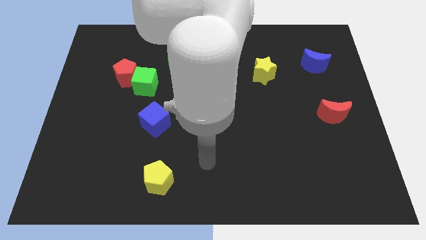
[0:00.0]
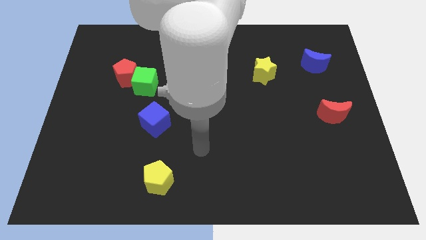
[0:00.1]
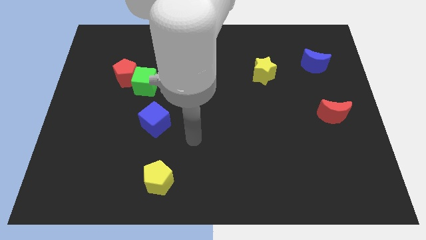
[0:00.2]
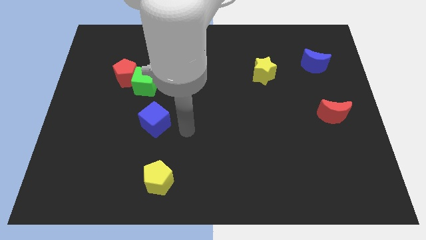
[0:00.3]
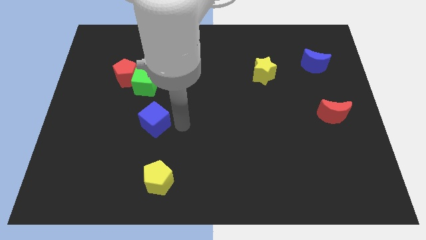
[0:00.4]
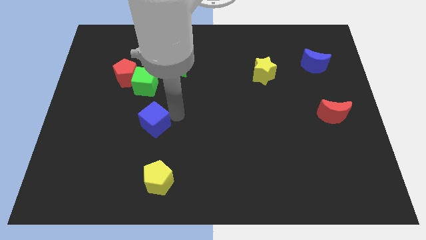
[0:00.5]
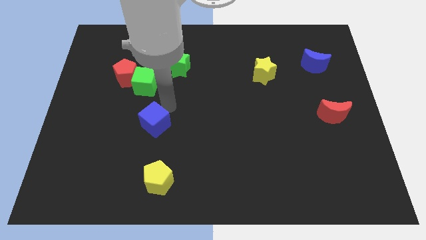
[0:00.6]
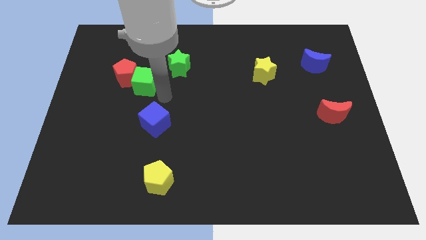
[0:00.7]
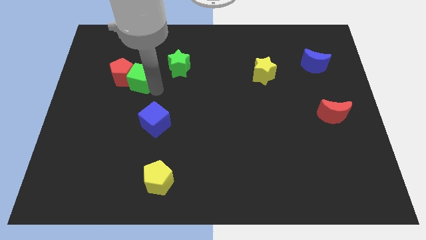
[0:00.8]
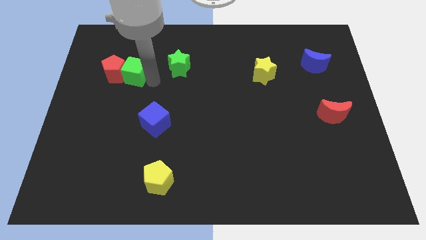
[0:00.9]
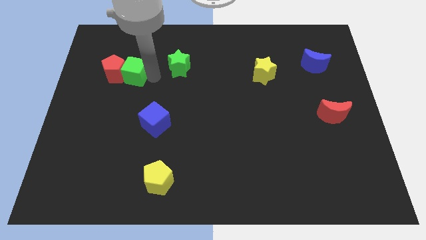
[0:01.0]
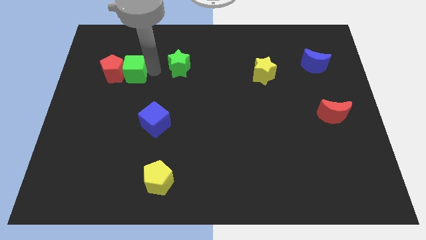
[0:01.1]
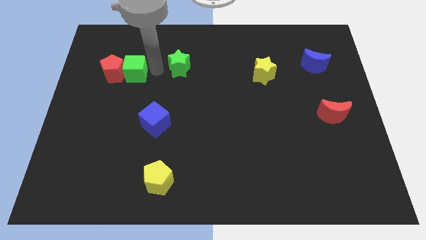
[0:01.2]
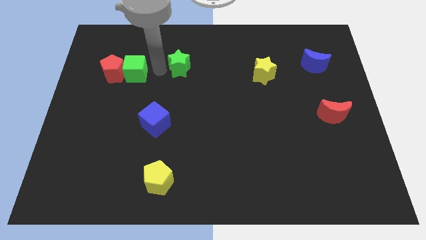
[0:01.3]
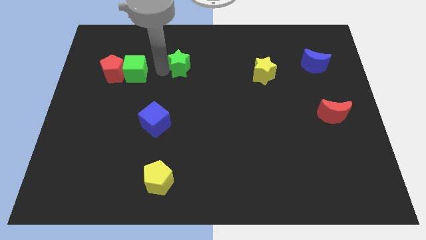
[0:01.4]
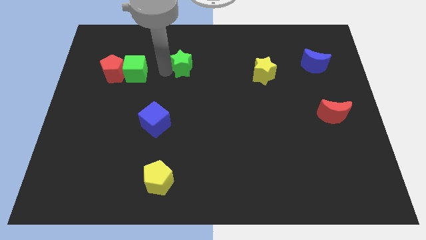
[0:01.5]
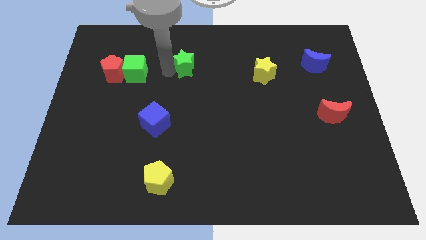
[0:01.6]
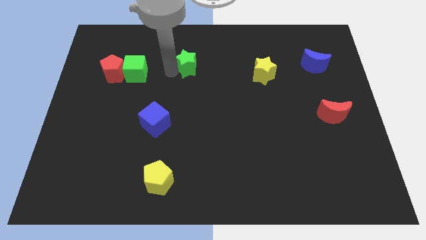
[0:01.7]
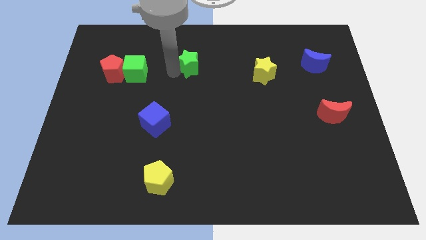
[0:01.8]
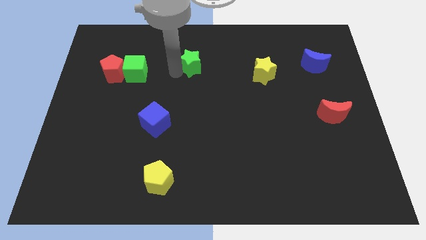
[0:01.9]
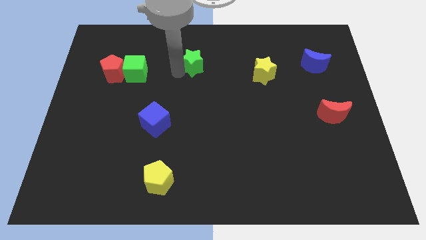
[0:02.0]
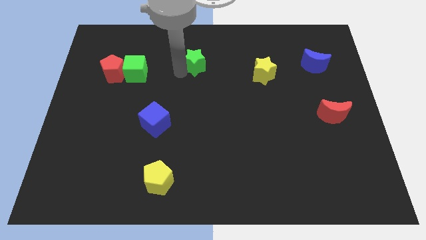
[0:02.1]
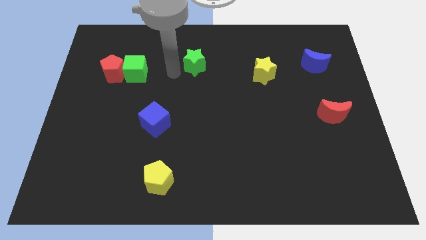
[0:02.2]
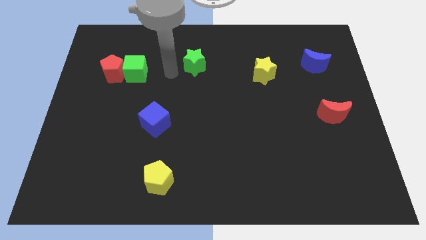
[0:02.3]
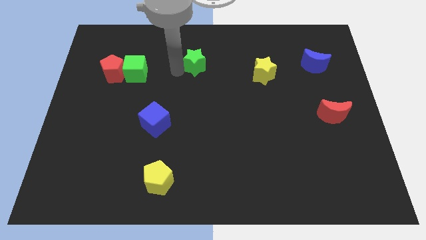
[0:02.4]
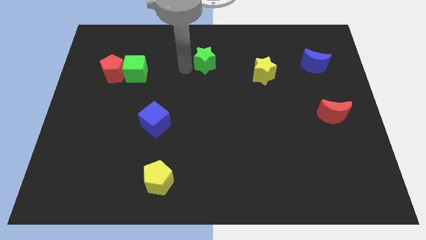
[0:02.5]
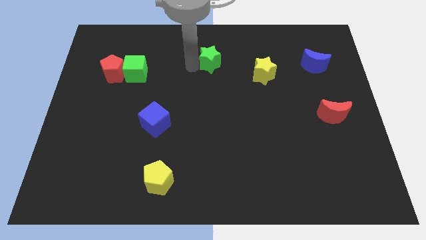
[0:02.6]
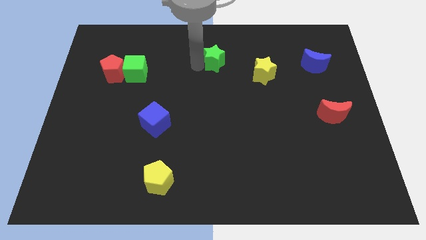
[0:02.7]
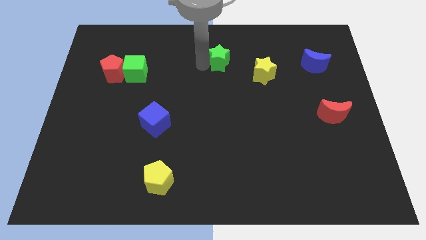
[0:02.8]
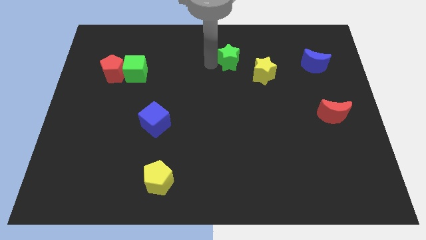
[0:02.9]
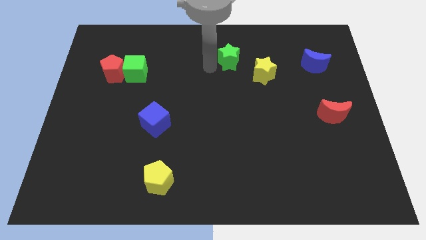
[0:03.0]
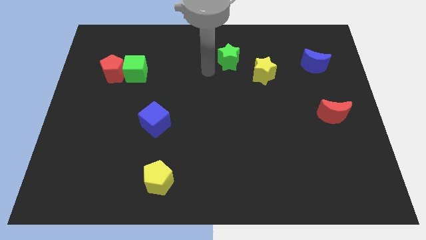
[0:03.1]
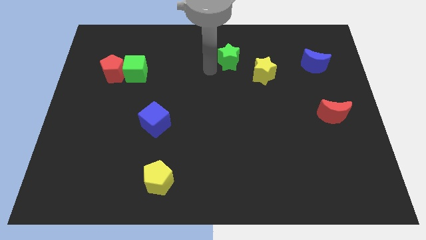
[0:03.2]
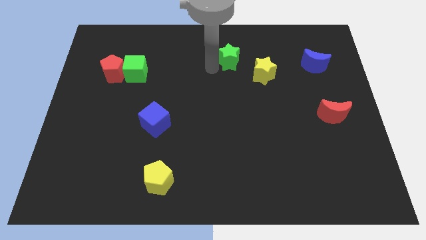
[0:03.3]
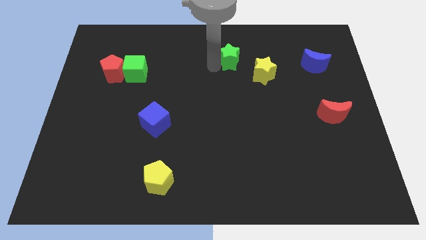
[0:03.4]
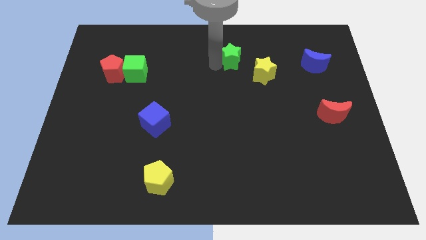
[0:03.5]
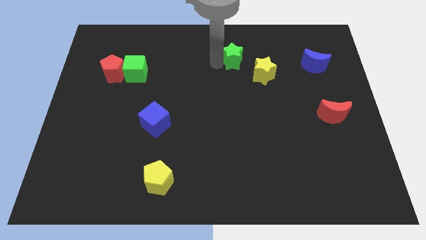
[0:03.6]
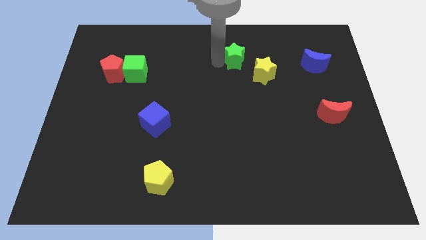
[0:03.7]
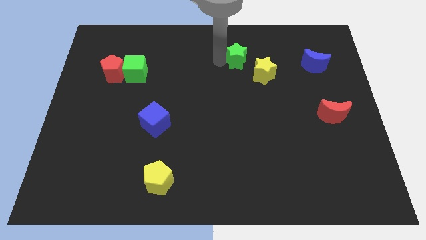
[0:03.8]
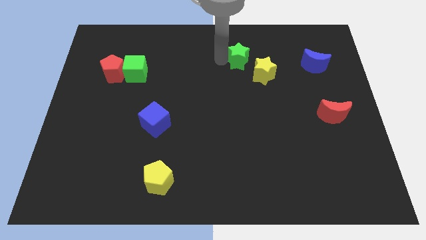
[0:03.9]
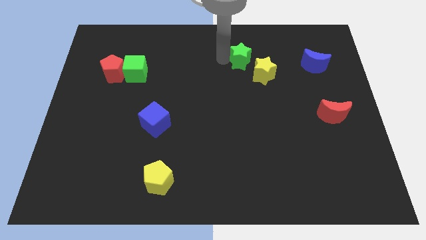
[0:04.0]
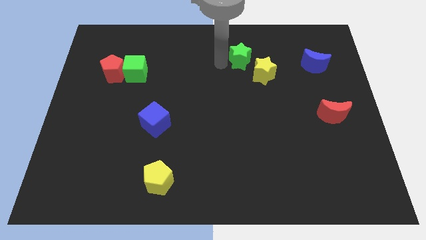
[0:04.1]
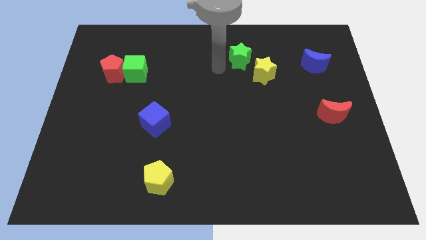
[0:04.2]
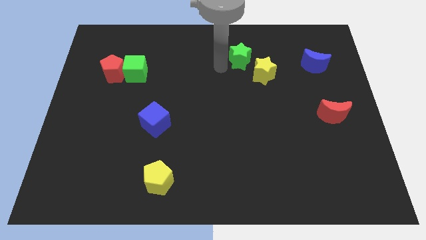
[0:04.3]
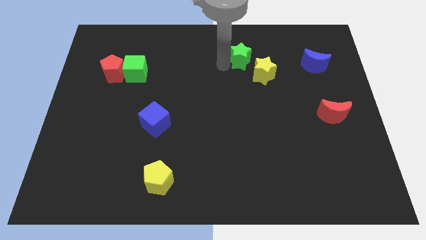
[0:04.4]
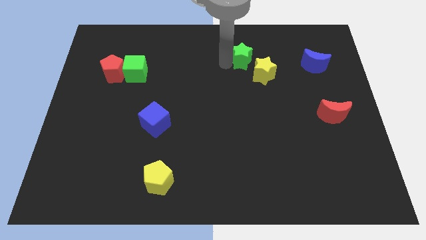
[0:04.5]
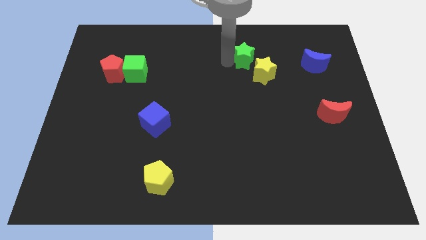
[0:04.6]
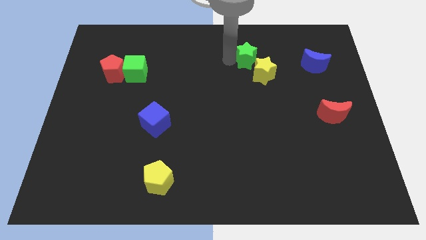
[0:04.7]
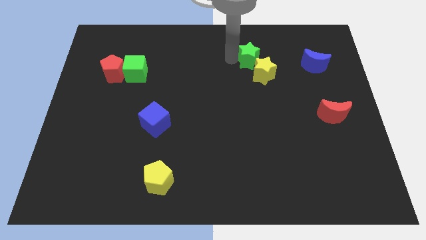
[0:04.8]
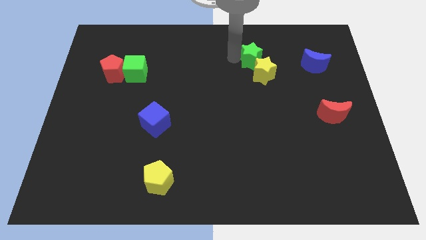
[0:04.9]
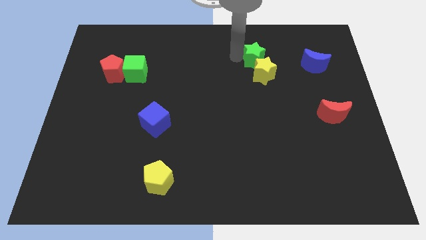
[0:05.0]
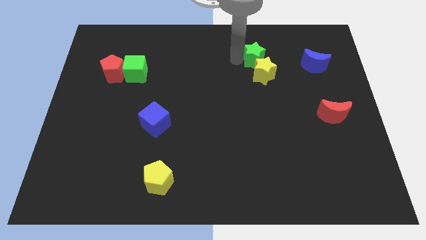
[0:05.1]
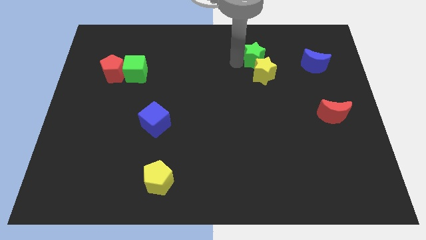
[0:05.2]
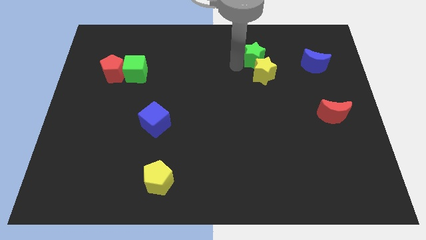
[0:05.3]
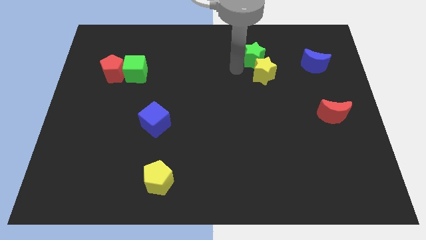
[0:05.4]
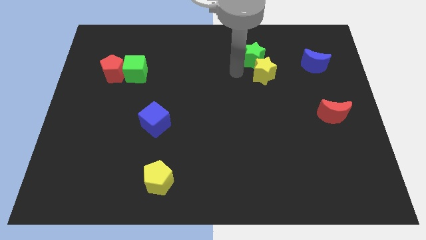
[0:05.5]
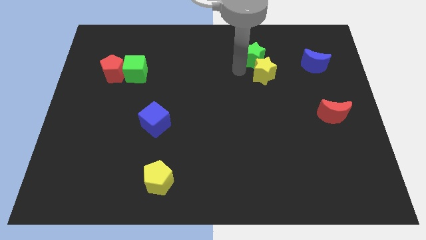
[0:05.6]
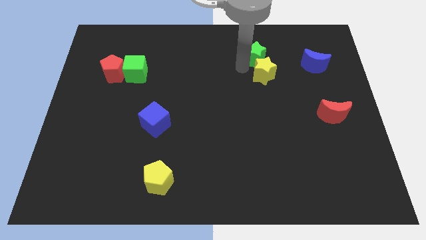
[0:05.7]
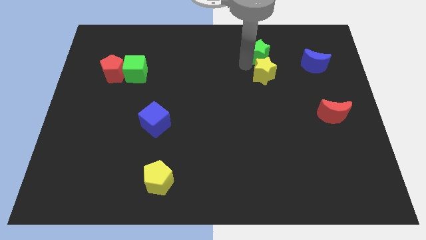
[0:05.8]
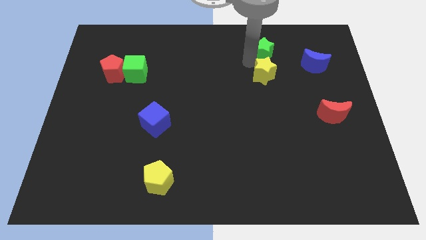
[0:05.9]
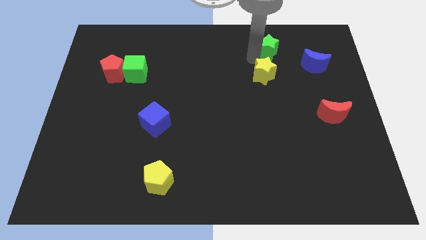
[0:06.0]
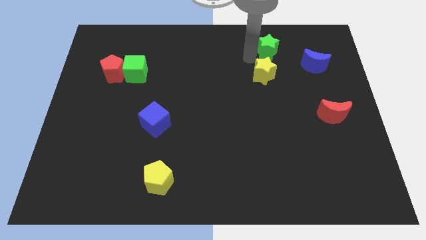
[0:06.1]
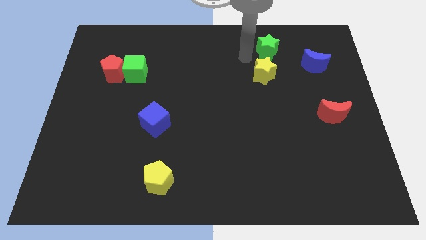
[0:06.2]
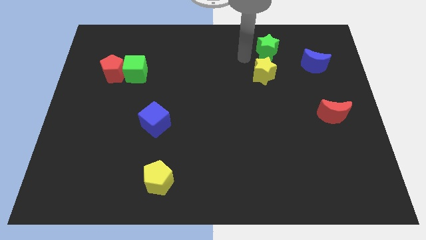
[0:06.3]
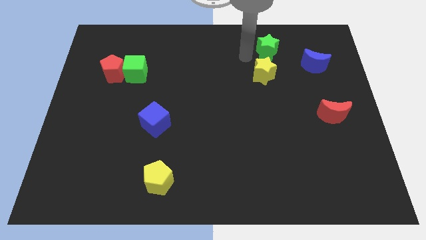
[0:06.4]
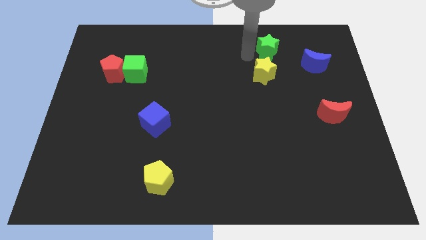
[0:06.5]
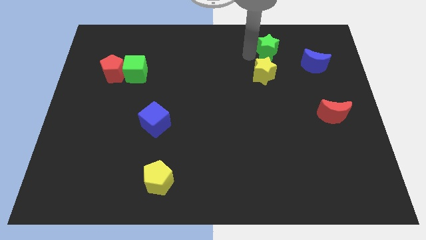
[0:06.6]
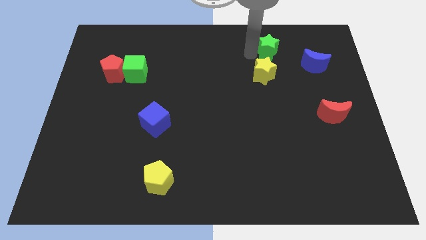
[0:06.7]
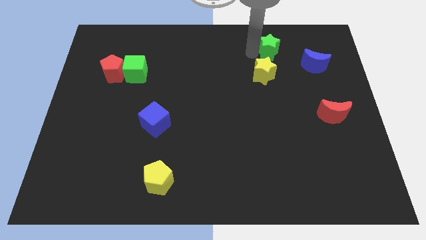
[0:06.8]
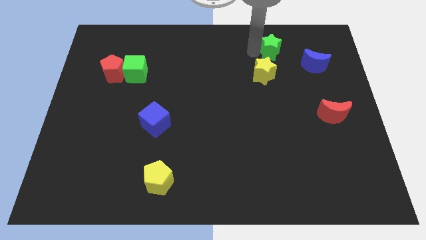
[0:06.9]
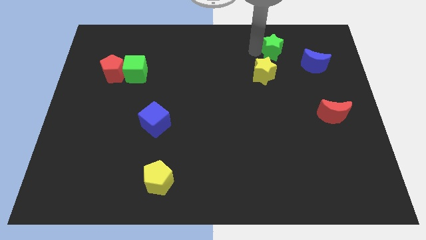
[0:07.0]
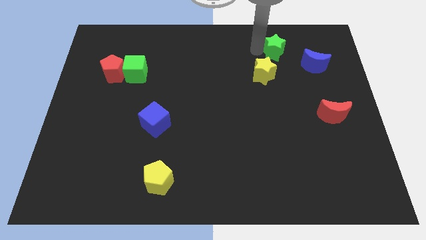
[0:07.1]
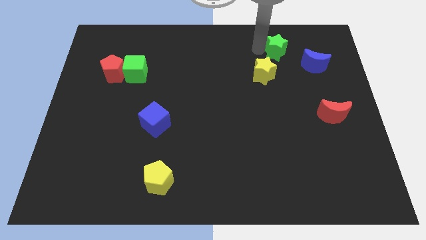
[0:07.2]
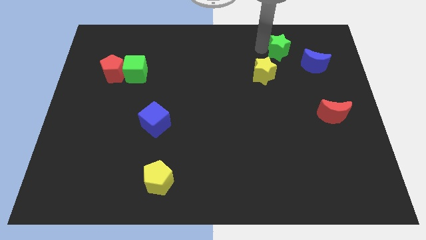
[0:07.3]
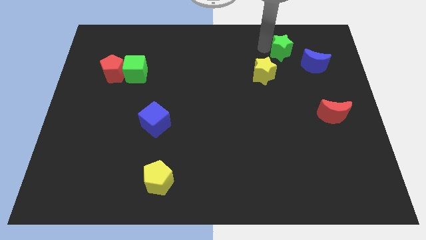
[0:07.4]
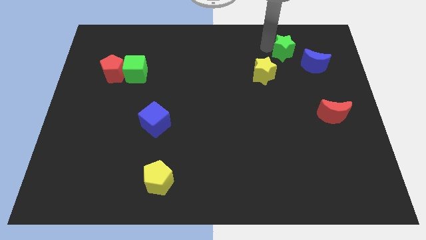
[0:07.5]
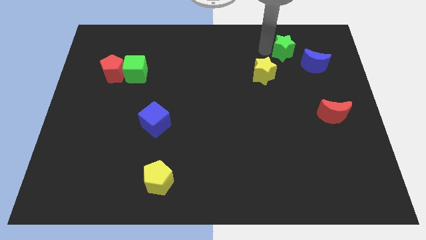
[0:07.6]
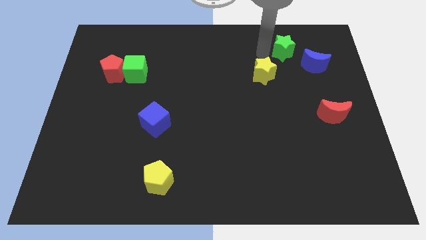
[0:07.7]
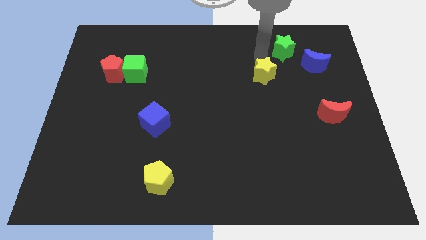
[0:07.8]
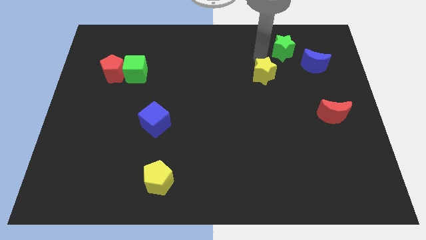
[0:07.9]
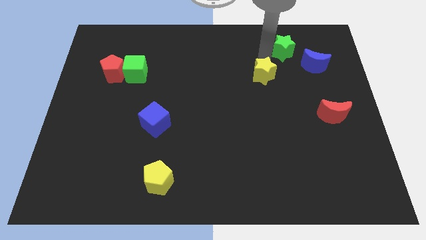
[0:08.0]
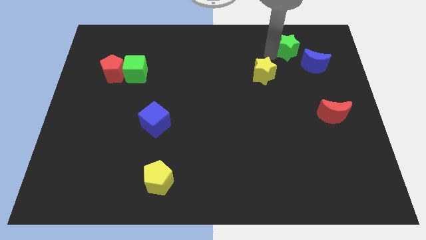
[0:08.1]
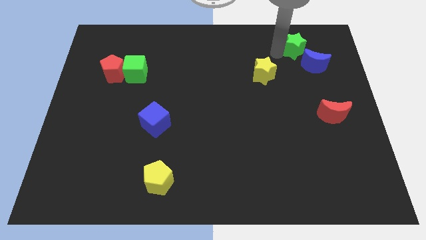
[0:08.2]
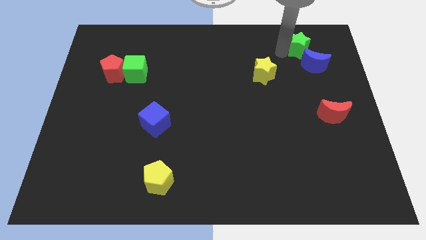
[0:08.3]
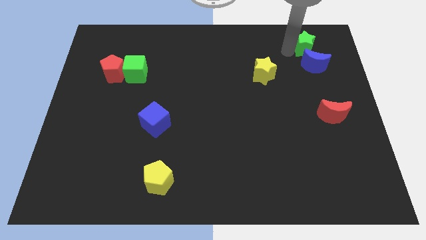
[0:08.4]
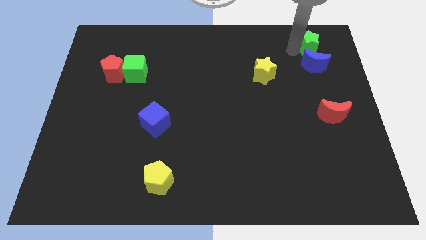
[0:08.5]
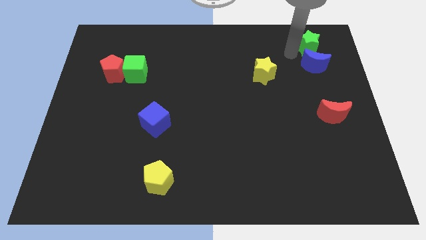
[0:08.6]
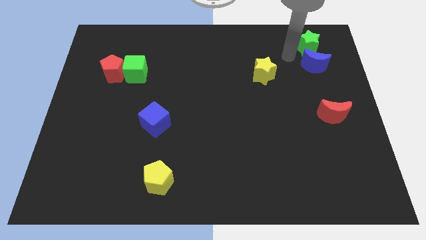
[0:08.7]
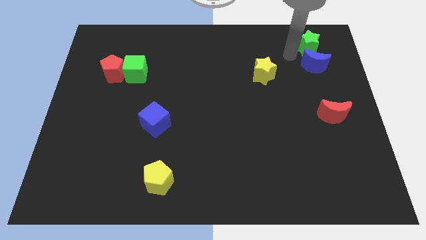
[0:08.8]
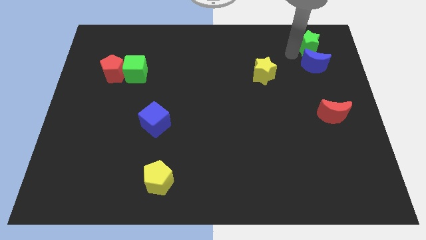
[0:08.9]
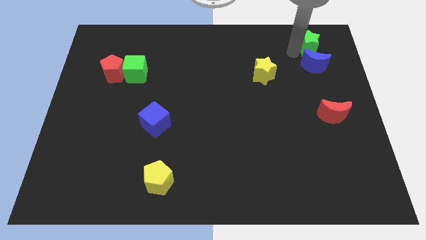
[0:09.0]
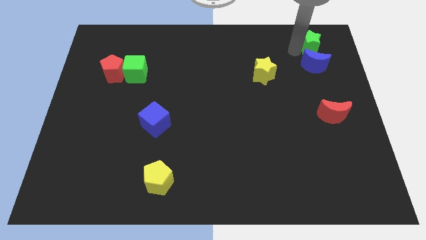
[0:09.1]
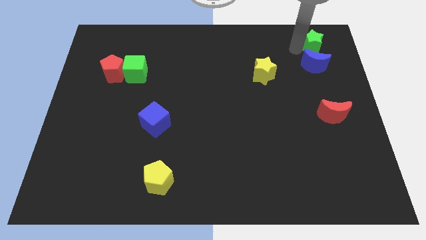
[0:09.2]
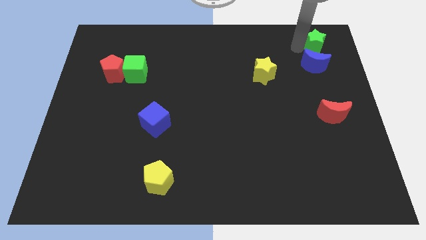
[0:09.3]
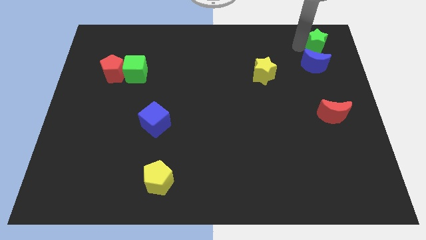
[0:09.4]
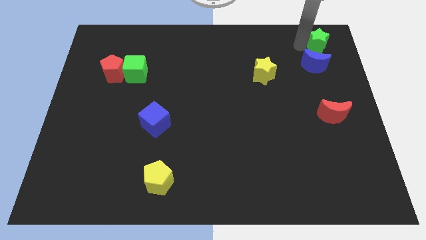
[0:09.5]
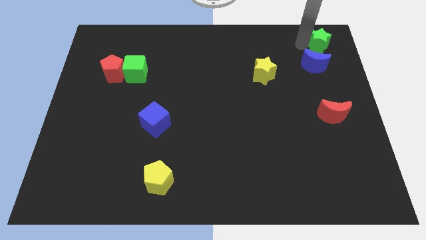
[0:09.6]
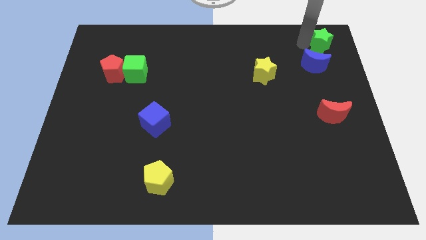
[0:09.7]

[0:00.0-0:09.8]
put the green star to the top right corner
